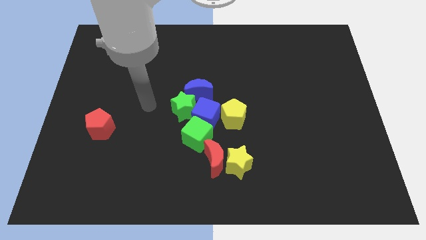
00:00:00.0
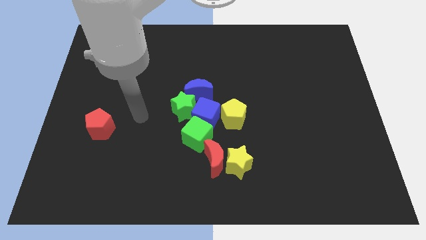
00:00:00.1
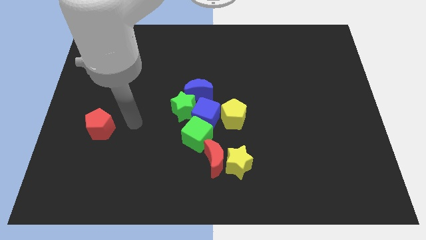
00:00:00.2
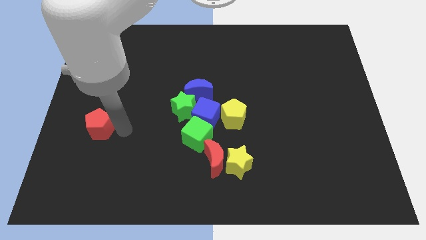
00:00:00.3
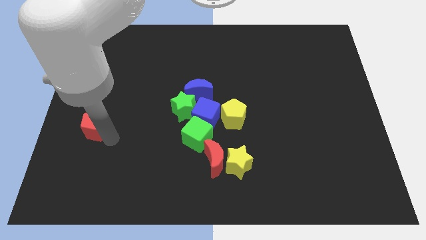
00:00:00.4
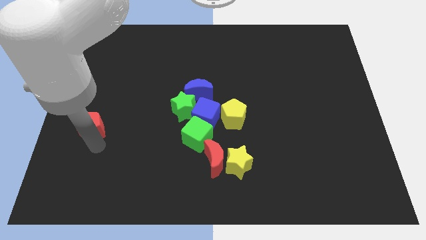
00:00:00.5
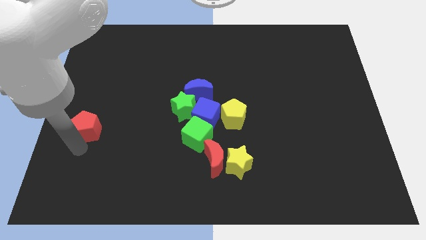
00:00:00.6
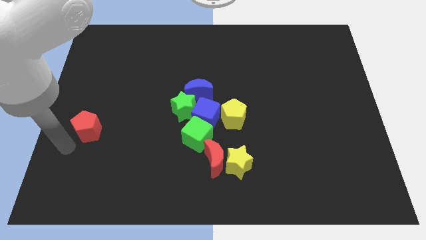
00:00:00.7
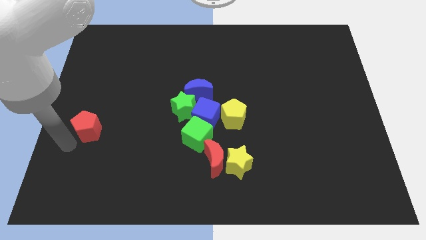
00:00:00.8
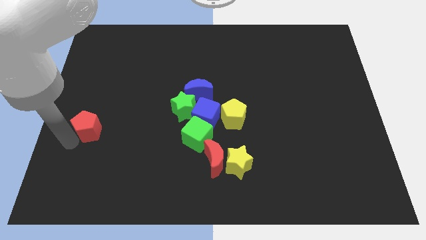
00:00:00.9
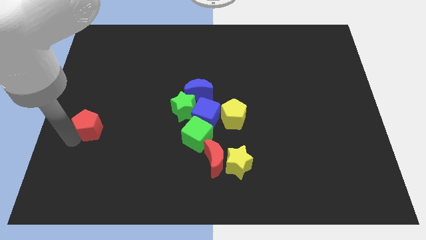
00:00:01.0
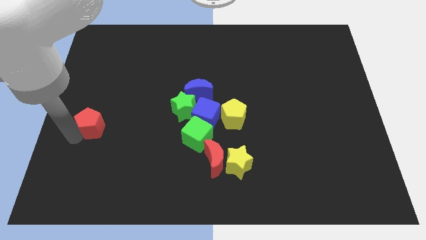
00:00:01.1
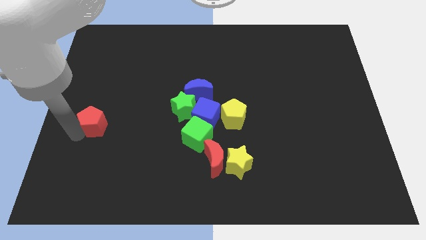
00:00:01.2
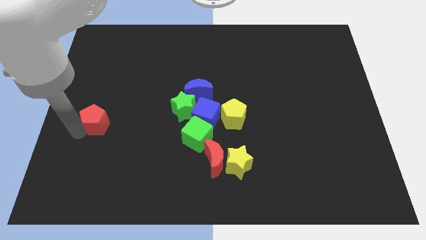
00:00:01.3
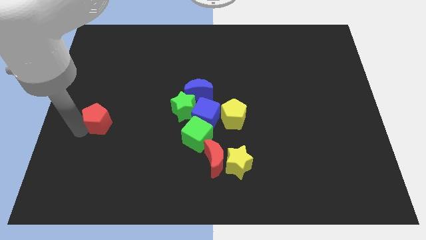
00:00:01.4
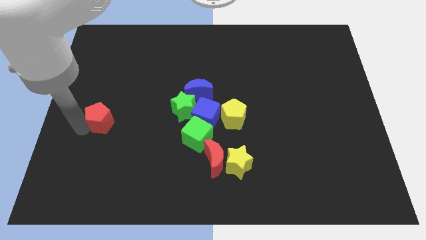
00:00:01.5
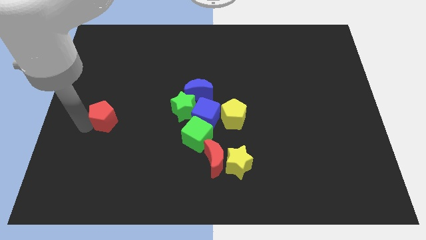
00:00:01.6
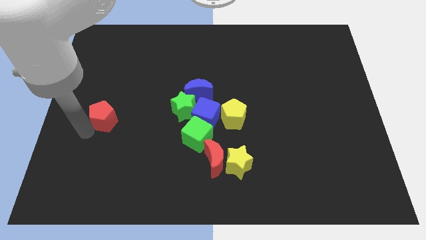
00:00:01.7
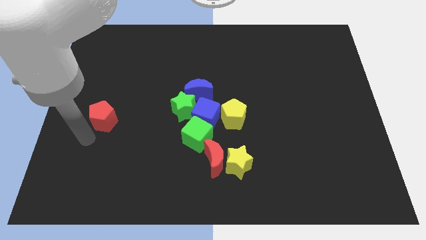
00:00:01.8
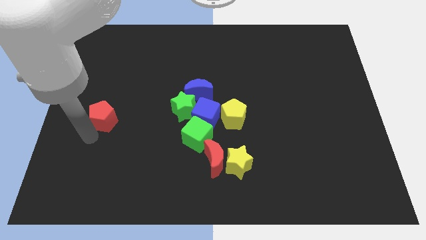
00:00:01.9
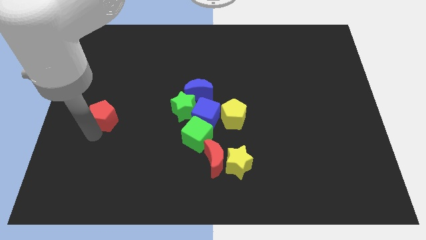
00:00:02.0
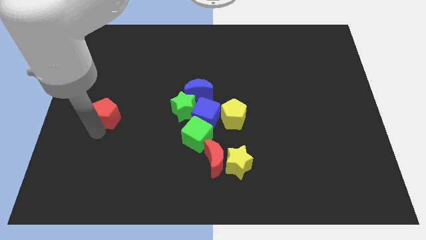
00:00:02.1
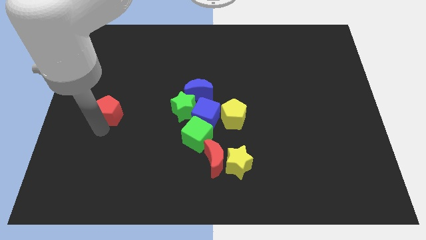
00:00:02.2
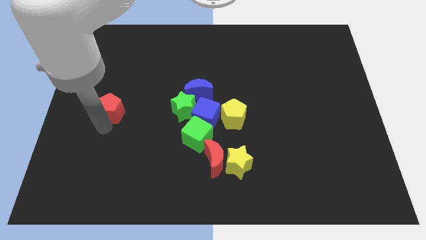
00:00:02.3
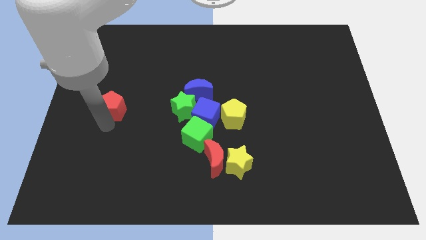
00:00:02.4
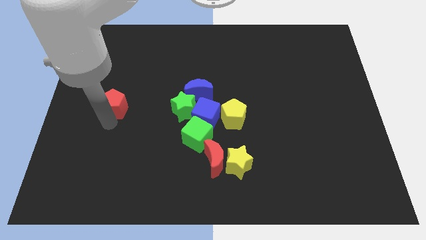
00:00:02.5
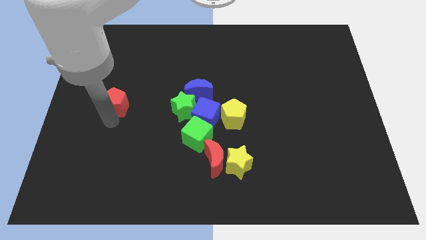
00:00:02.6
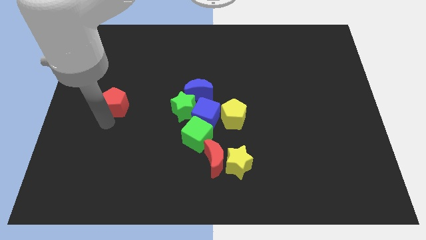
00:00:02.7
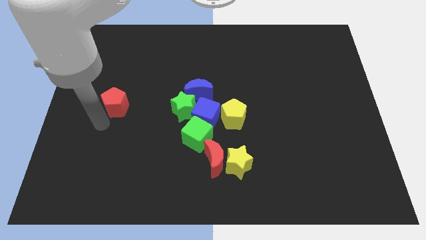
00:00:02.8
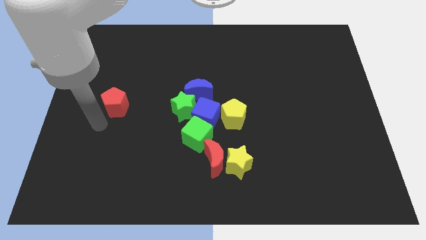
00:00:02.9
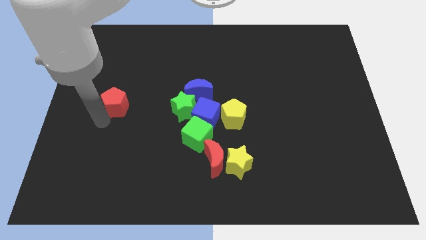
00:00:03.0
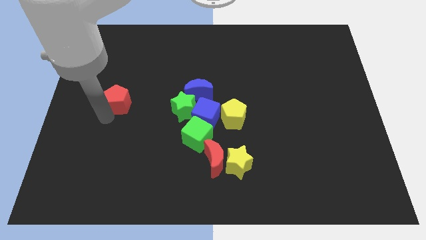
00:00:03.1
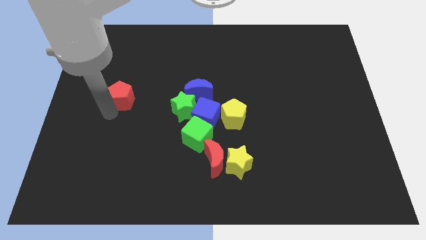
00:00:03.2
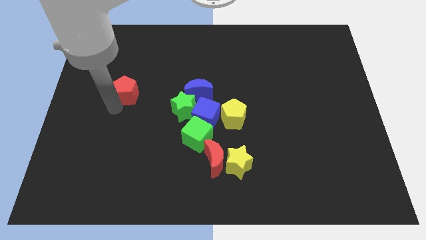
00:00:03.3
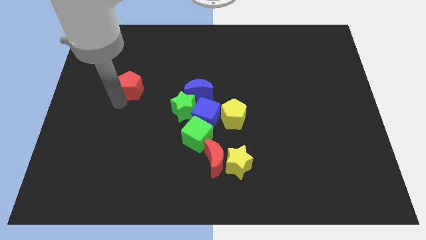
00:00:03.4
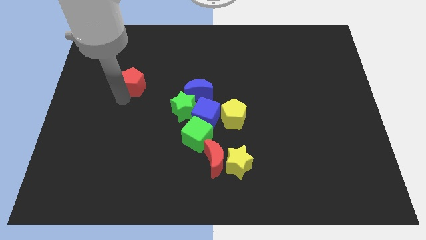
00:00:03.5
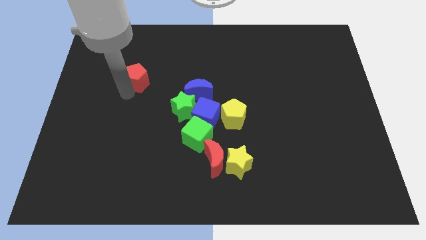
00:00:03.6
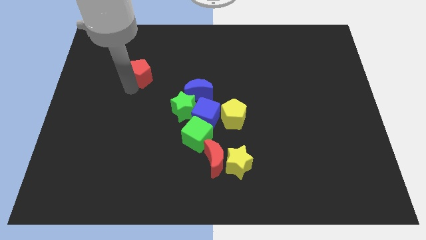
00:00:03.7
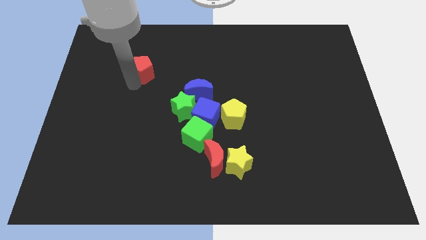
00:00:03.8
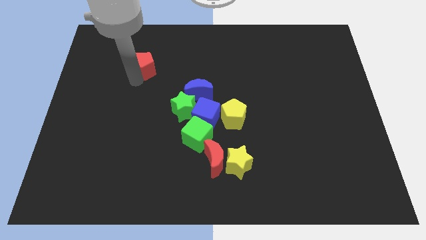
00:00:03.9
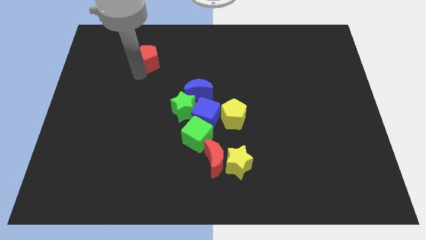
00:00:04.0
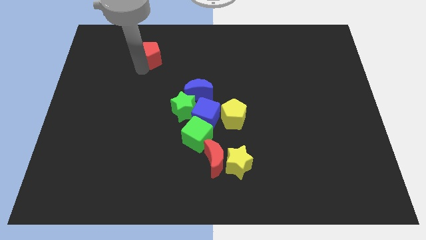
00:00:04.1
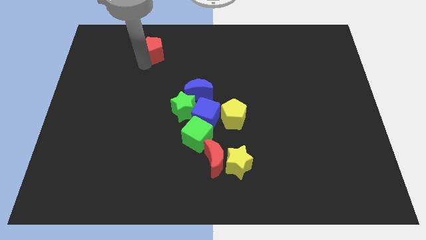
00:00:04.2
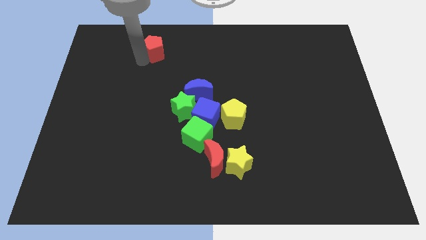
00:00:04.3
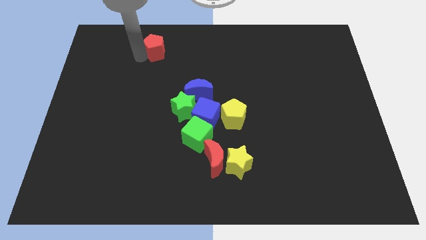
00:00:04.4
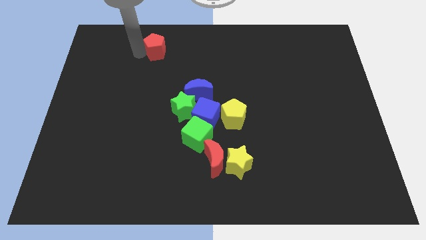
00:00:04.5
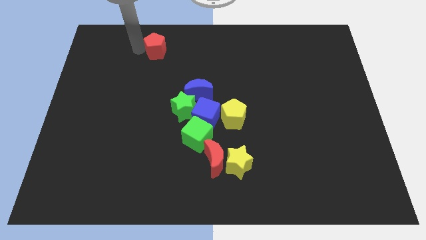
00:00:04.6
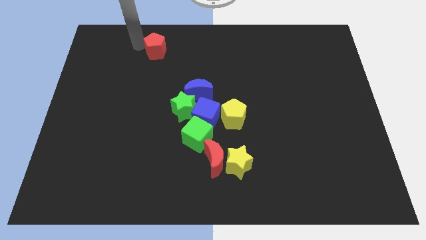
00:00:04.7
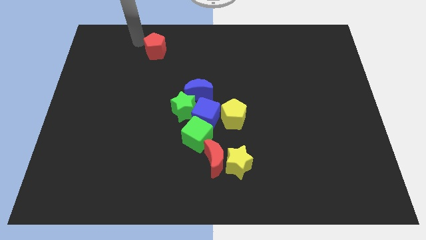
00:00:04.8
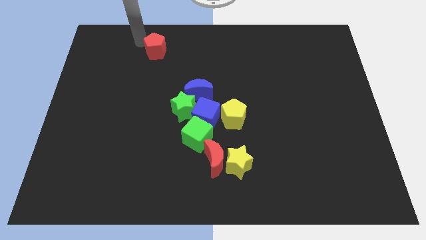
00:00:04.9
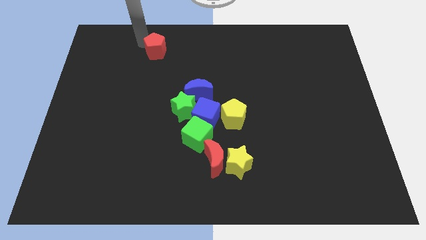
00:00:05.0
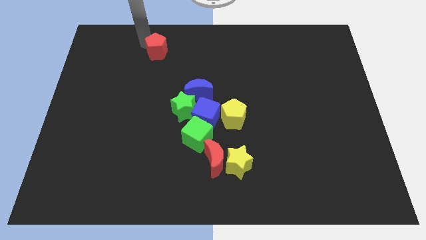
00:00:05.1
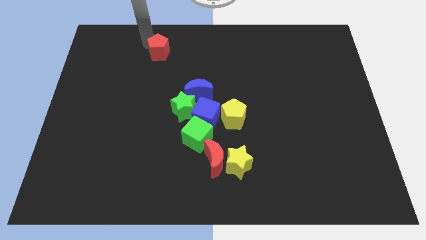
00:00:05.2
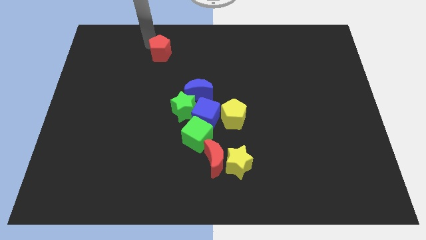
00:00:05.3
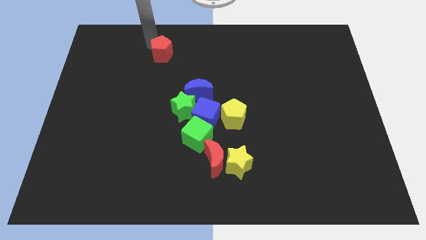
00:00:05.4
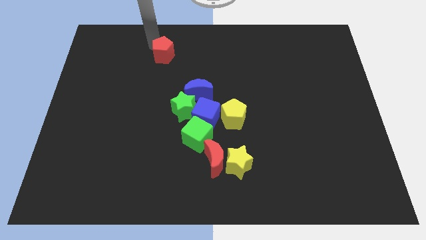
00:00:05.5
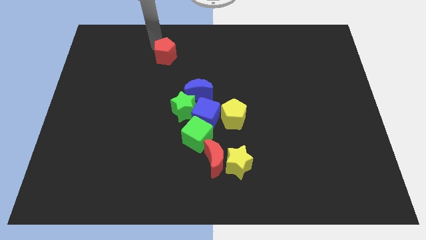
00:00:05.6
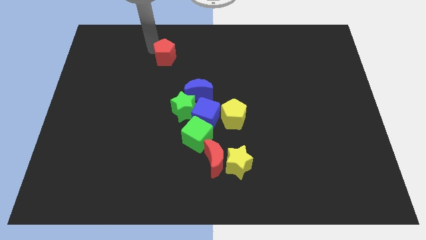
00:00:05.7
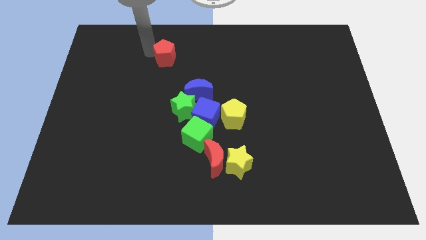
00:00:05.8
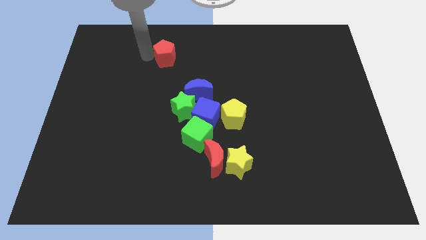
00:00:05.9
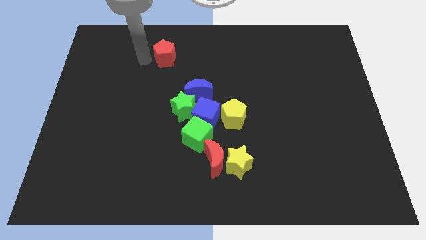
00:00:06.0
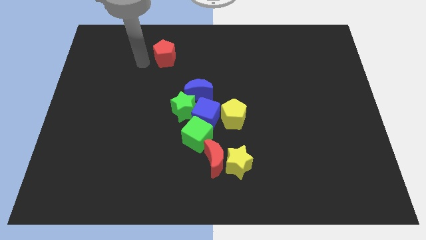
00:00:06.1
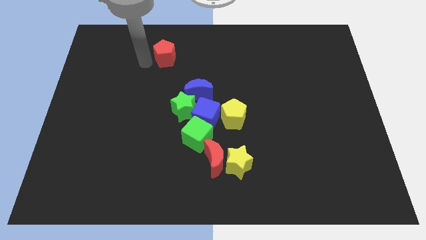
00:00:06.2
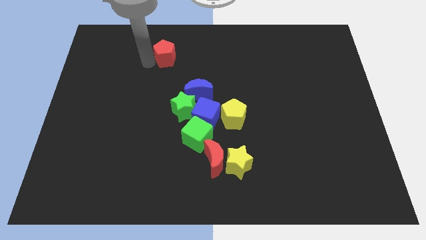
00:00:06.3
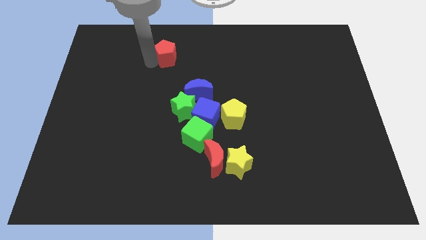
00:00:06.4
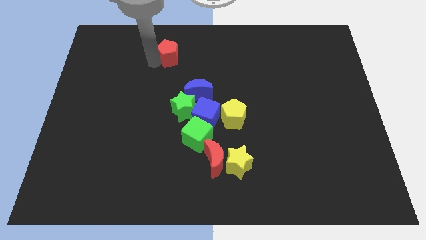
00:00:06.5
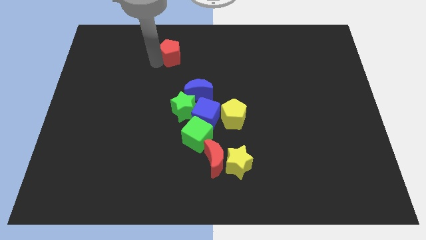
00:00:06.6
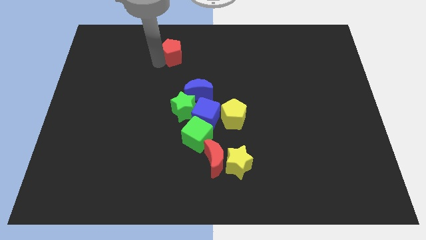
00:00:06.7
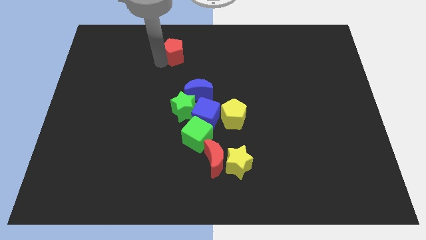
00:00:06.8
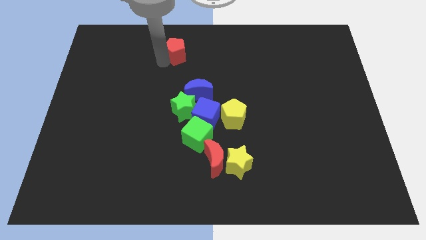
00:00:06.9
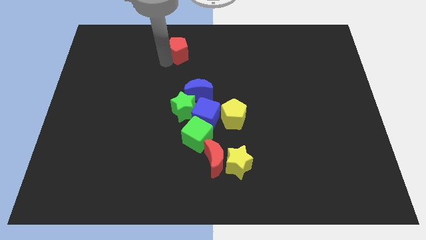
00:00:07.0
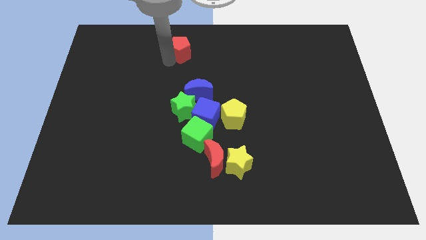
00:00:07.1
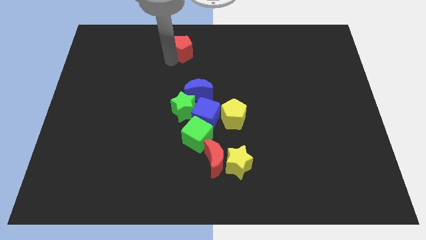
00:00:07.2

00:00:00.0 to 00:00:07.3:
slide the red pentagon to the top
